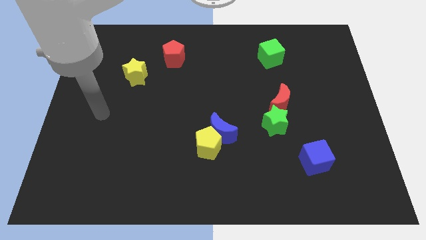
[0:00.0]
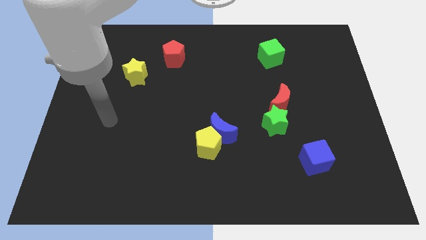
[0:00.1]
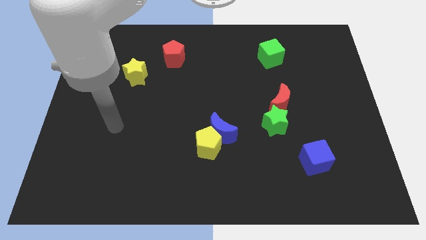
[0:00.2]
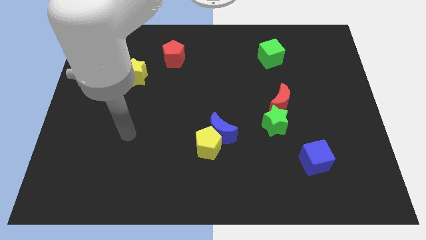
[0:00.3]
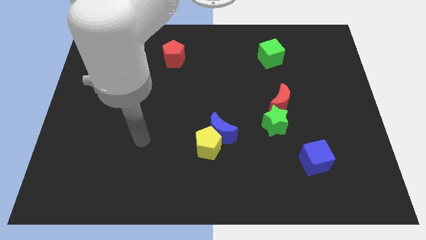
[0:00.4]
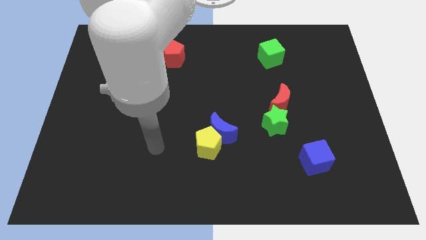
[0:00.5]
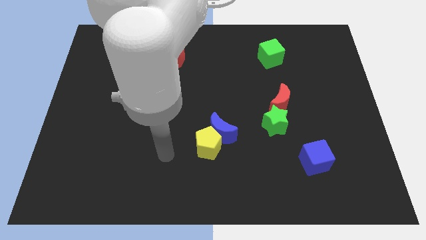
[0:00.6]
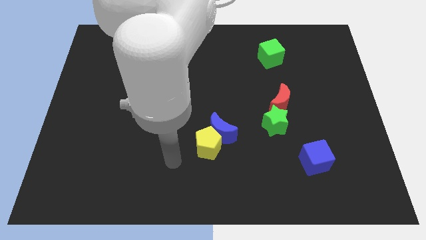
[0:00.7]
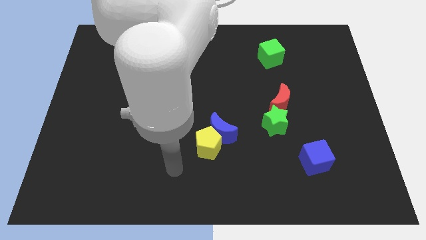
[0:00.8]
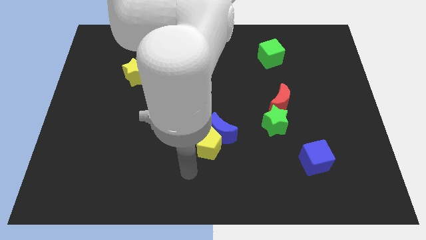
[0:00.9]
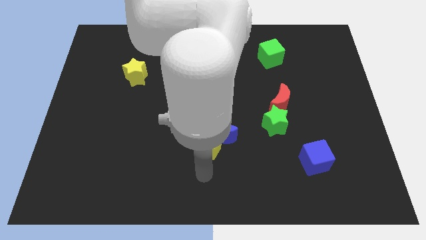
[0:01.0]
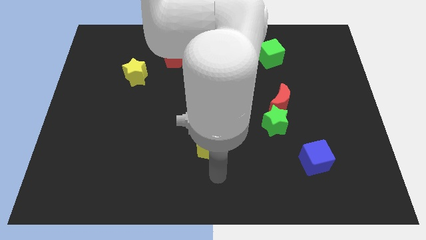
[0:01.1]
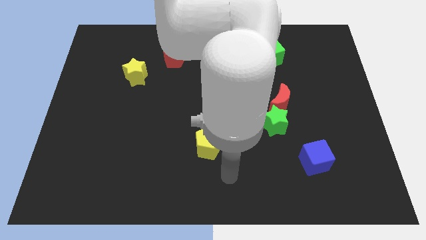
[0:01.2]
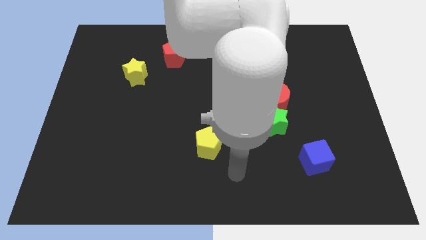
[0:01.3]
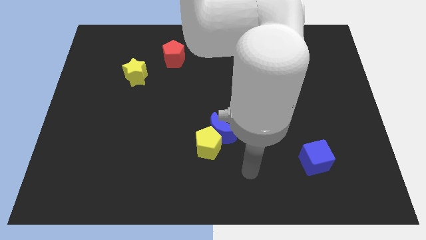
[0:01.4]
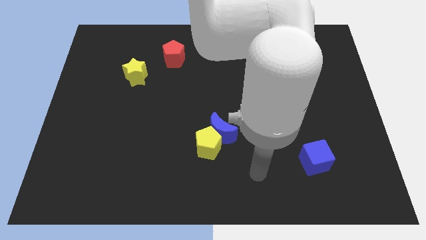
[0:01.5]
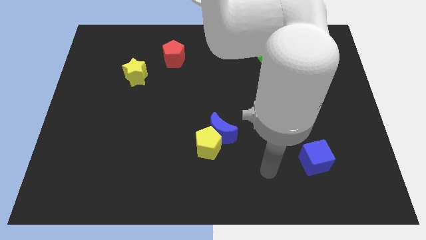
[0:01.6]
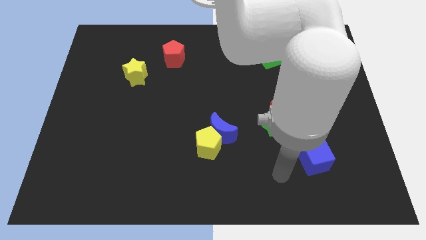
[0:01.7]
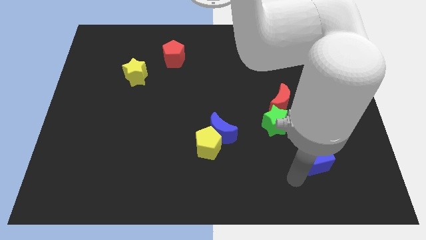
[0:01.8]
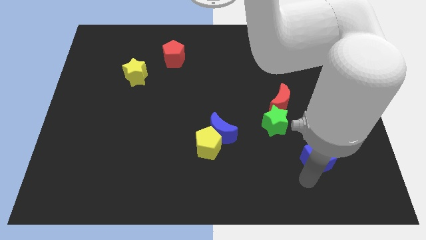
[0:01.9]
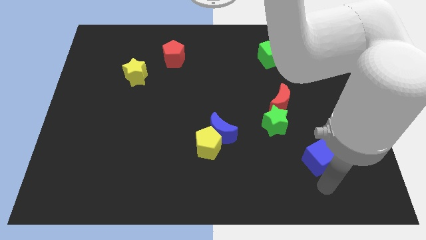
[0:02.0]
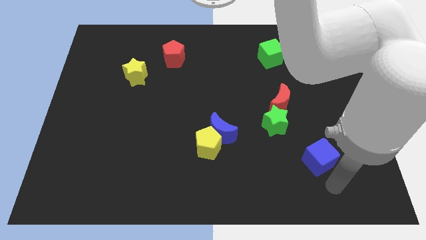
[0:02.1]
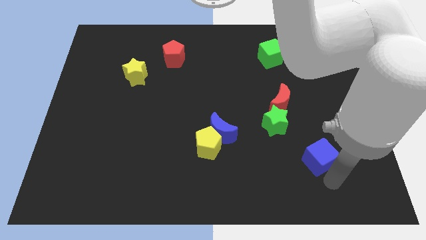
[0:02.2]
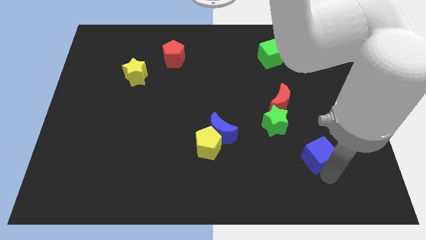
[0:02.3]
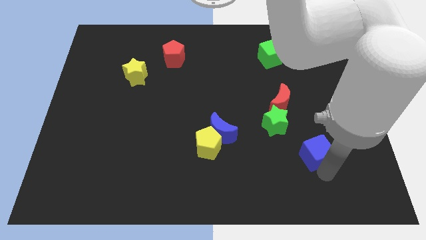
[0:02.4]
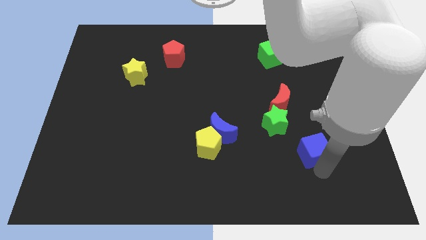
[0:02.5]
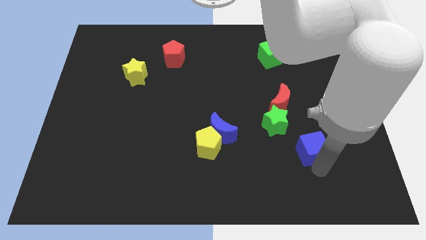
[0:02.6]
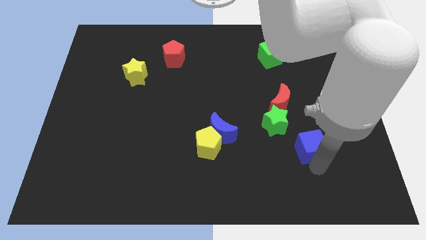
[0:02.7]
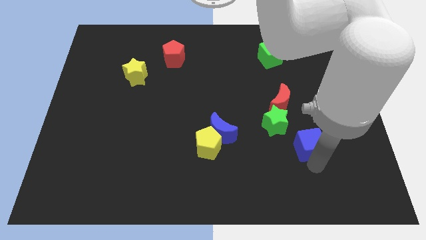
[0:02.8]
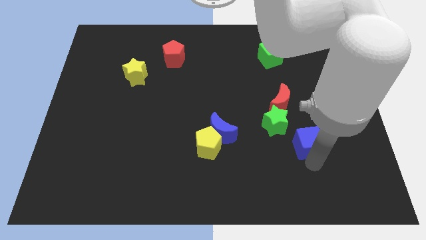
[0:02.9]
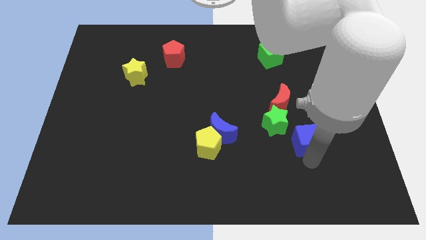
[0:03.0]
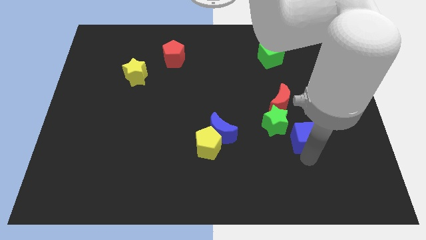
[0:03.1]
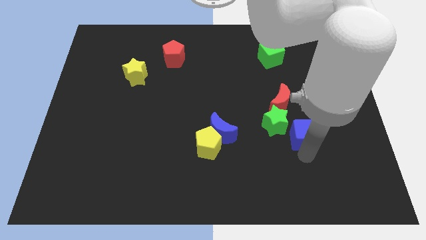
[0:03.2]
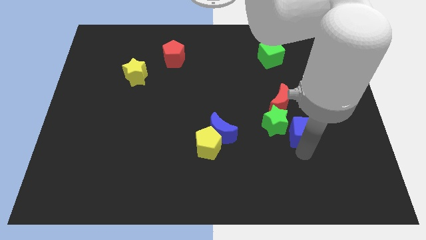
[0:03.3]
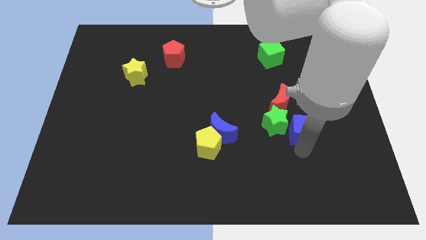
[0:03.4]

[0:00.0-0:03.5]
slightly slide the blue cube upwards

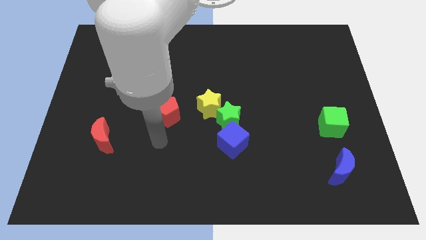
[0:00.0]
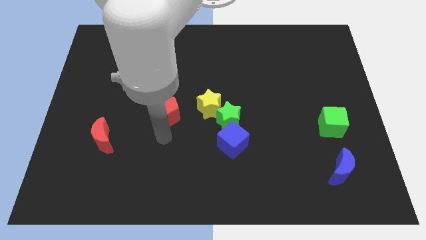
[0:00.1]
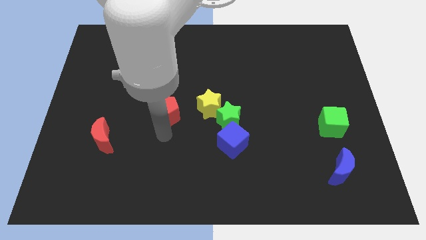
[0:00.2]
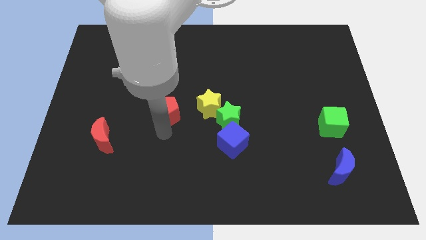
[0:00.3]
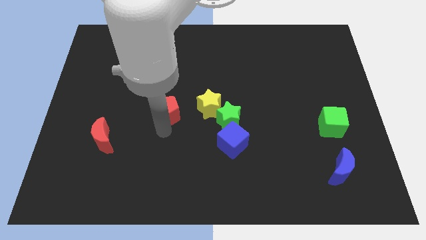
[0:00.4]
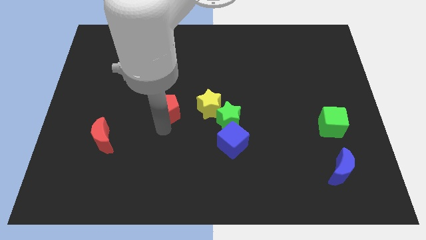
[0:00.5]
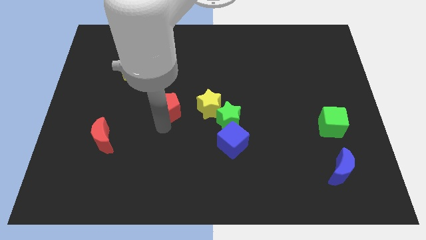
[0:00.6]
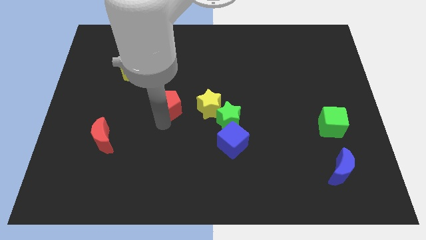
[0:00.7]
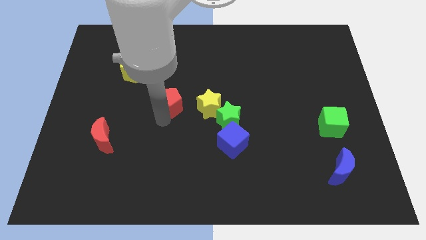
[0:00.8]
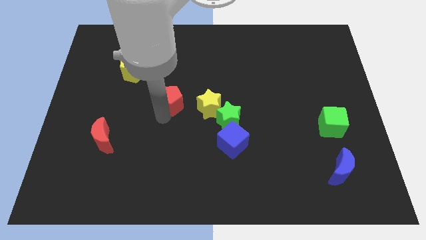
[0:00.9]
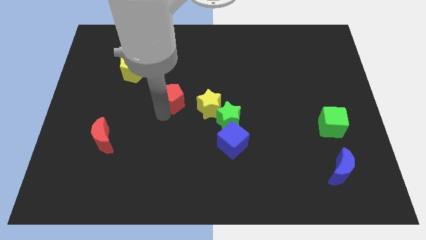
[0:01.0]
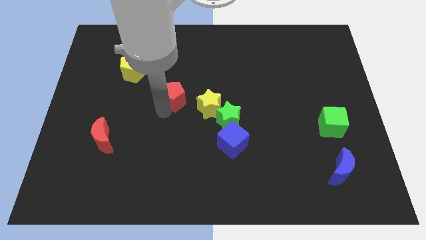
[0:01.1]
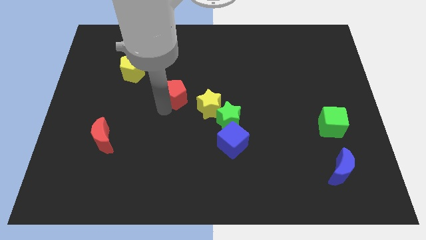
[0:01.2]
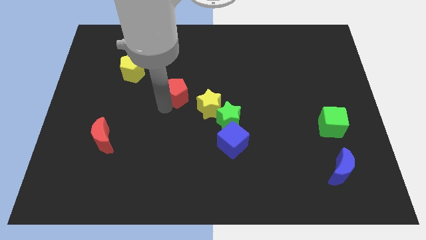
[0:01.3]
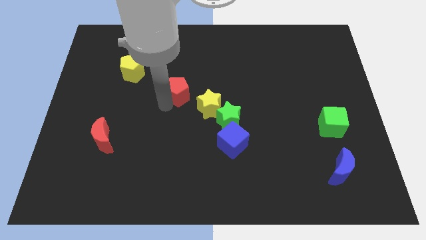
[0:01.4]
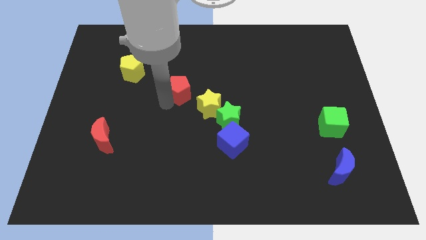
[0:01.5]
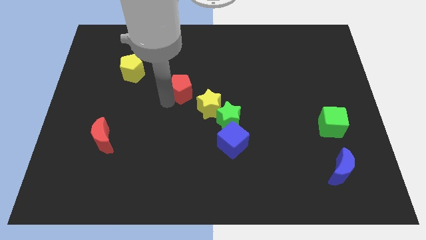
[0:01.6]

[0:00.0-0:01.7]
slightly push the red pentagon upwards

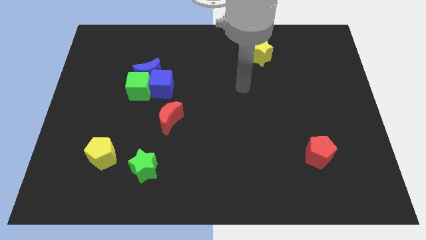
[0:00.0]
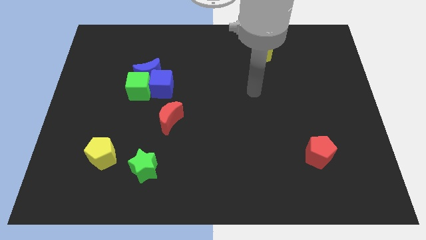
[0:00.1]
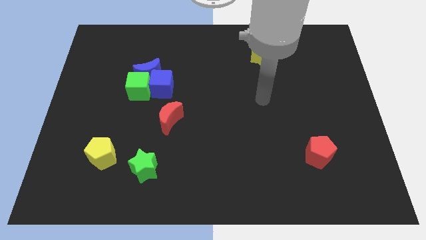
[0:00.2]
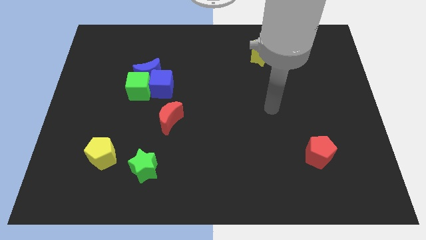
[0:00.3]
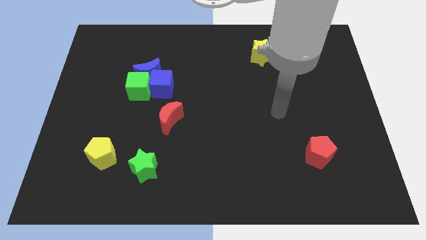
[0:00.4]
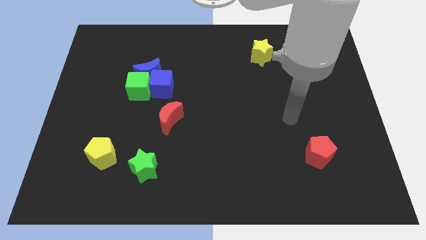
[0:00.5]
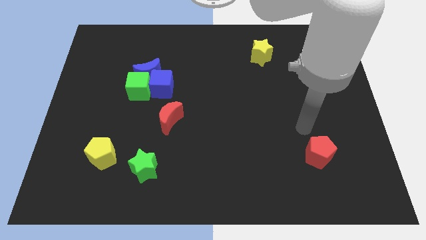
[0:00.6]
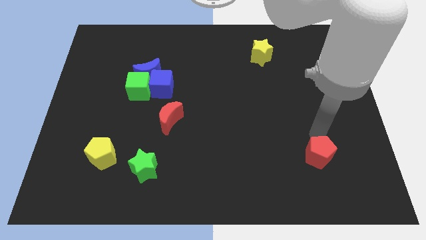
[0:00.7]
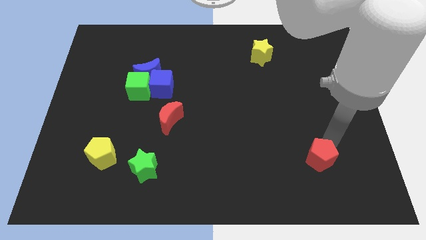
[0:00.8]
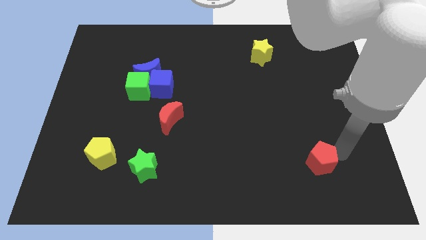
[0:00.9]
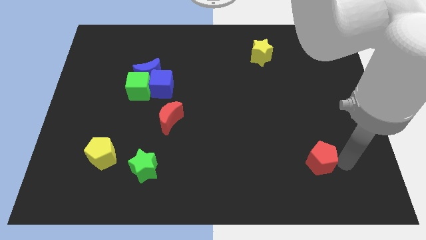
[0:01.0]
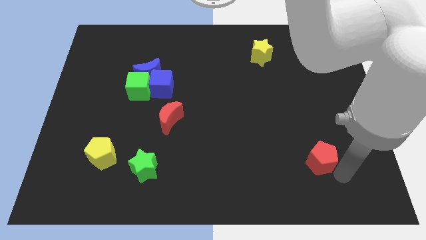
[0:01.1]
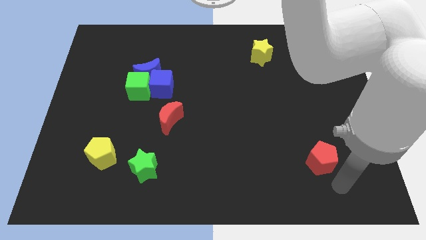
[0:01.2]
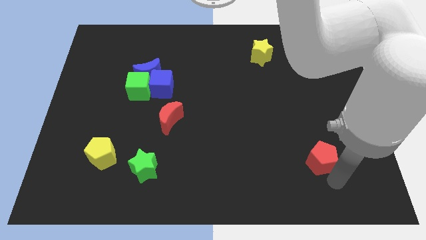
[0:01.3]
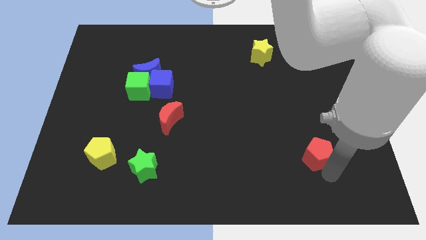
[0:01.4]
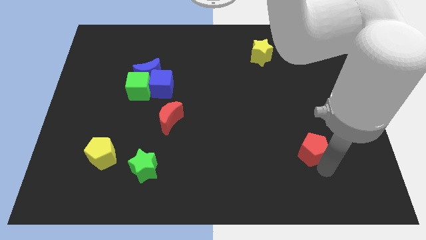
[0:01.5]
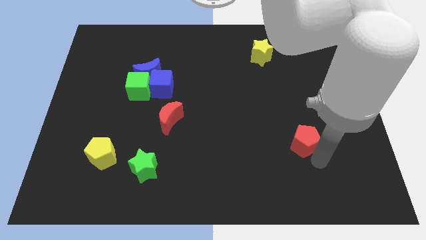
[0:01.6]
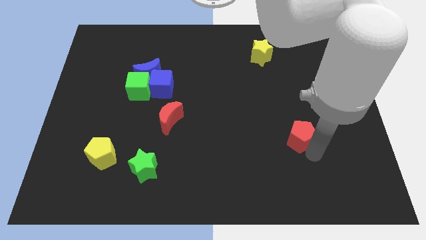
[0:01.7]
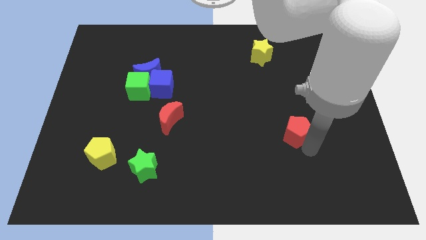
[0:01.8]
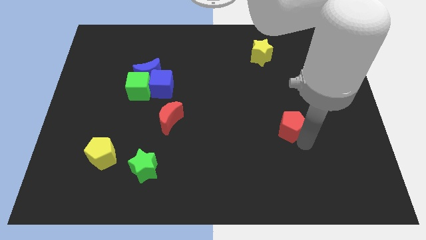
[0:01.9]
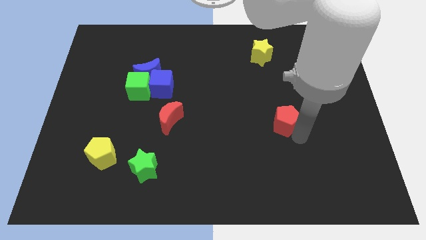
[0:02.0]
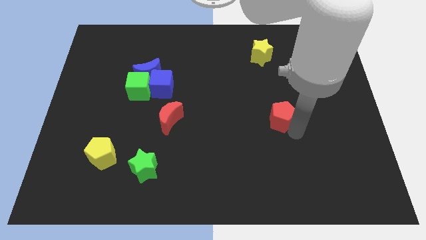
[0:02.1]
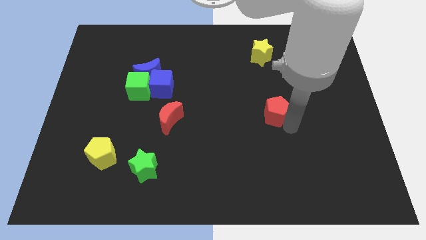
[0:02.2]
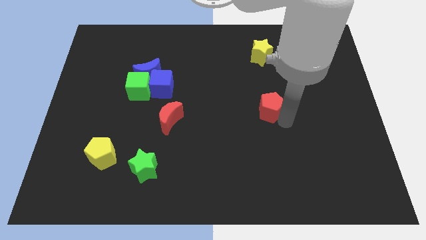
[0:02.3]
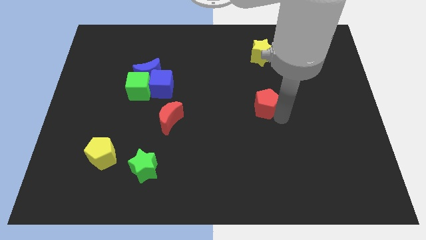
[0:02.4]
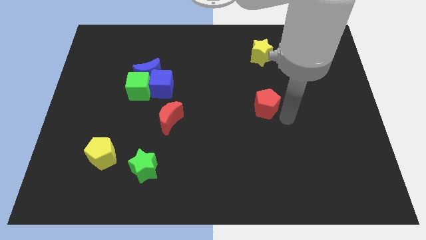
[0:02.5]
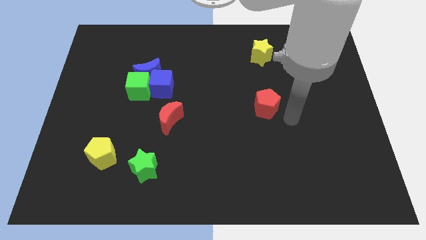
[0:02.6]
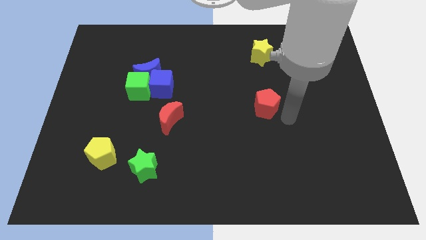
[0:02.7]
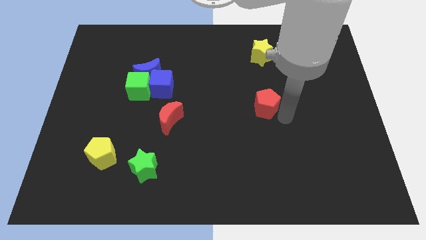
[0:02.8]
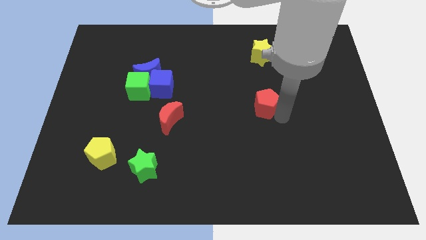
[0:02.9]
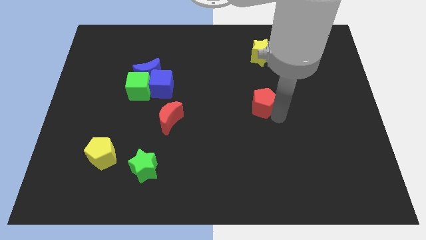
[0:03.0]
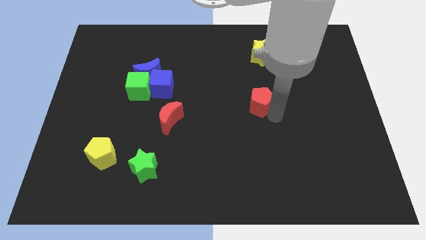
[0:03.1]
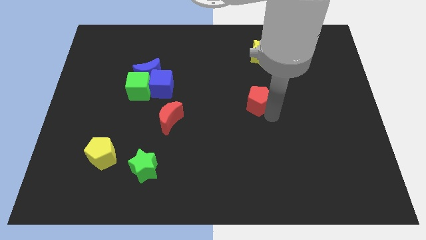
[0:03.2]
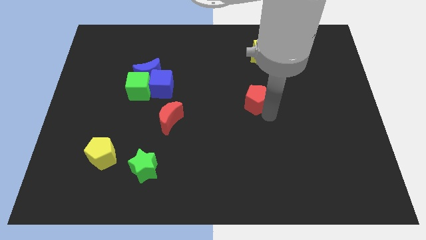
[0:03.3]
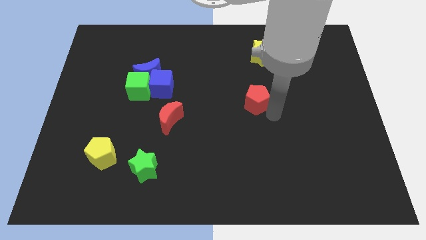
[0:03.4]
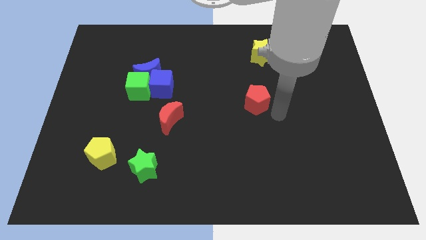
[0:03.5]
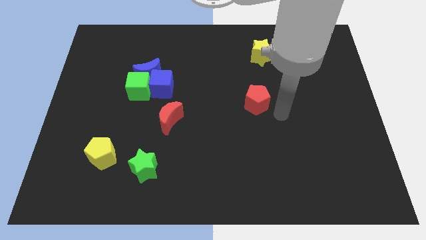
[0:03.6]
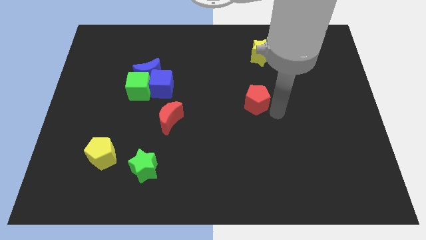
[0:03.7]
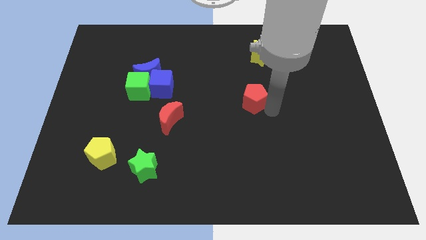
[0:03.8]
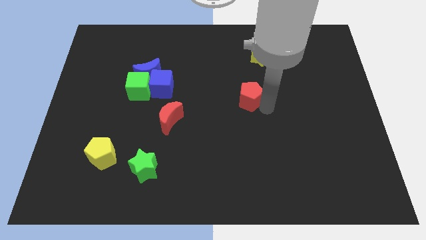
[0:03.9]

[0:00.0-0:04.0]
push the red pentagon up and to the left diagonally
